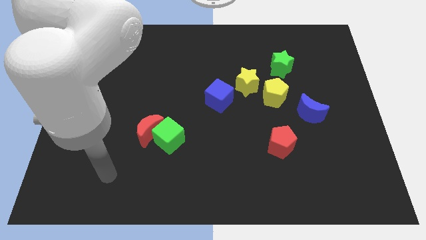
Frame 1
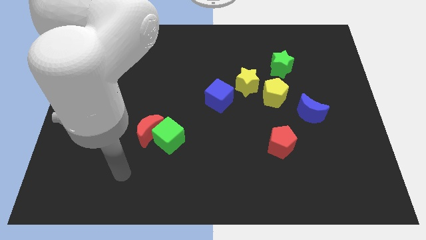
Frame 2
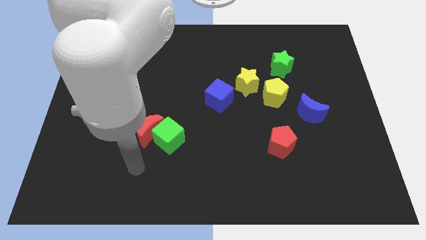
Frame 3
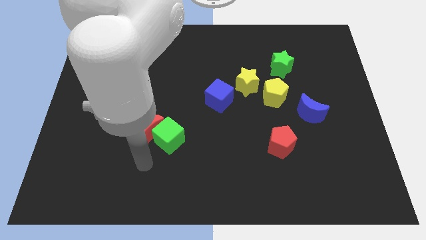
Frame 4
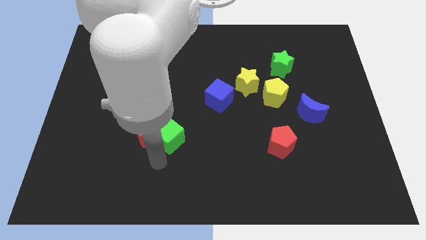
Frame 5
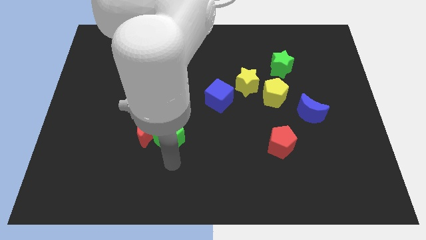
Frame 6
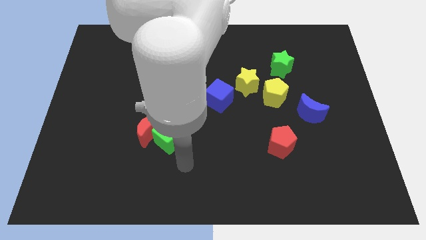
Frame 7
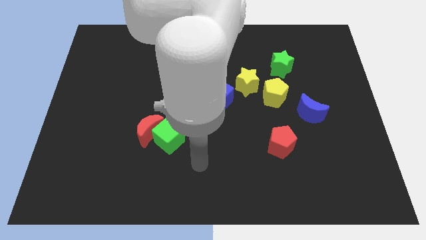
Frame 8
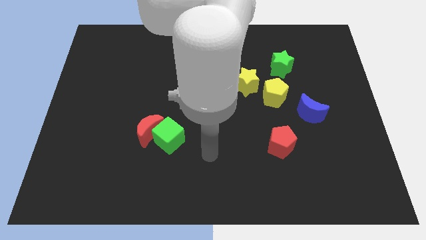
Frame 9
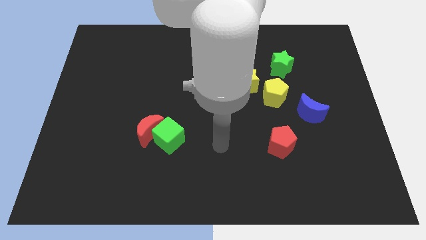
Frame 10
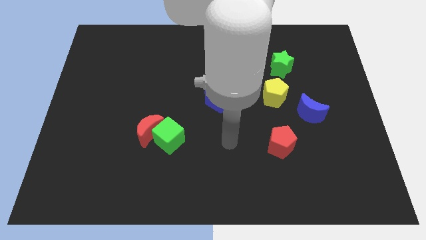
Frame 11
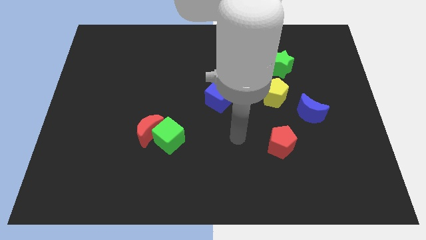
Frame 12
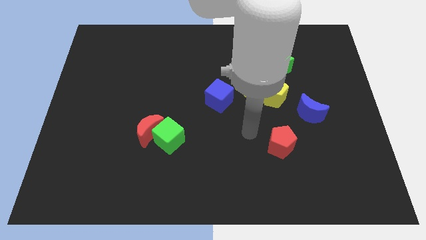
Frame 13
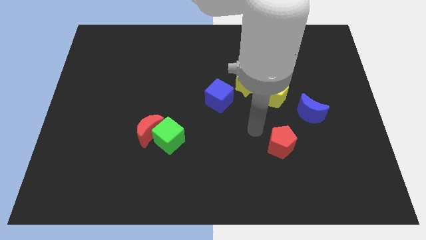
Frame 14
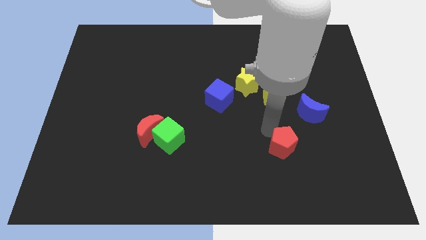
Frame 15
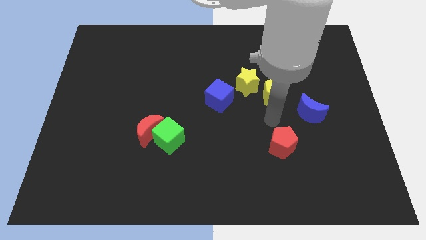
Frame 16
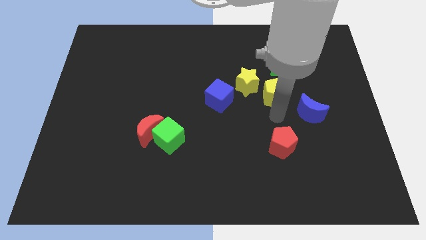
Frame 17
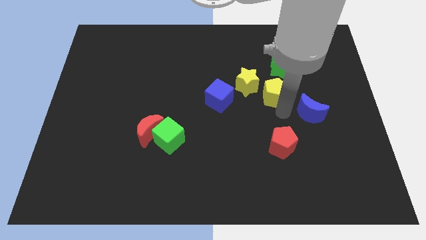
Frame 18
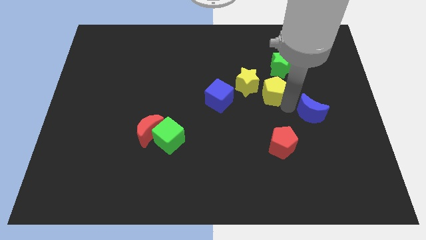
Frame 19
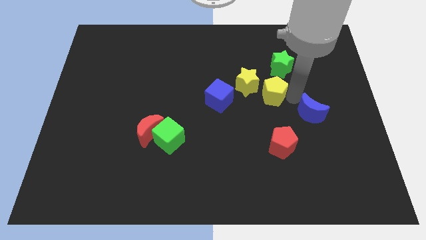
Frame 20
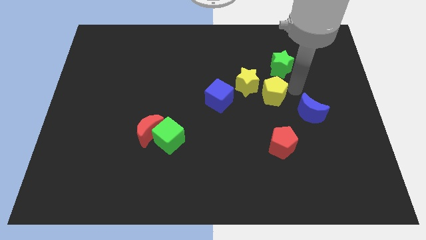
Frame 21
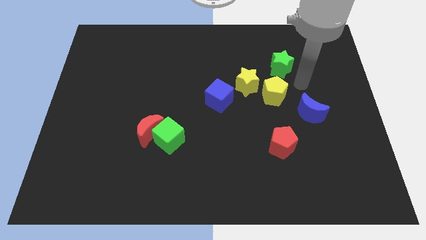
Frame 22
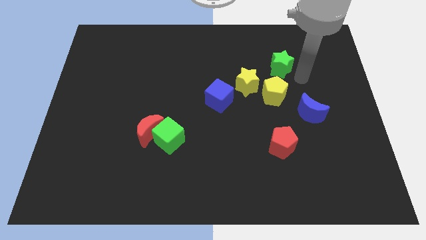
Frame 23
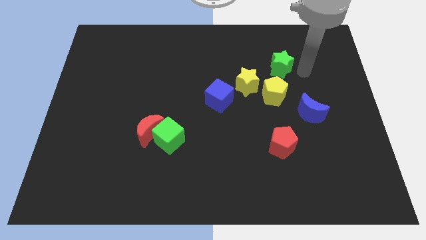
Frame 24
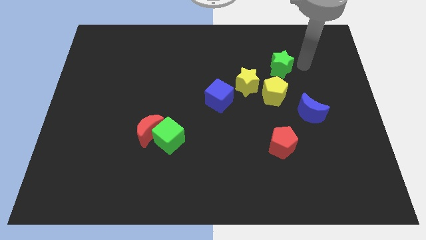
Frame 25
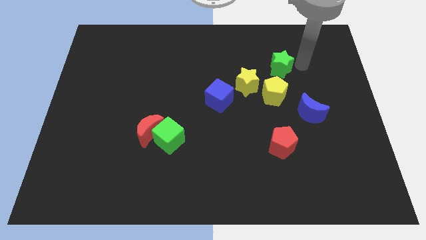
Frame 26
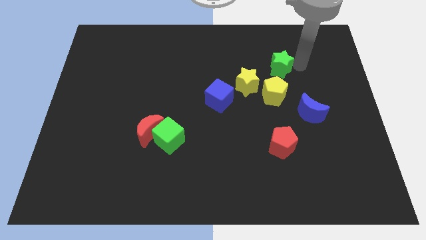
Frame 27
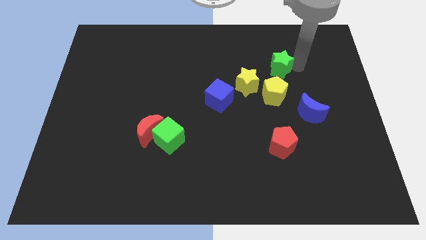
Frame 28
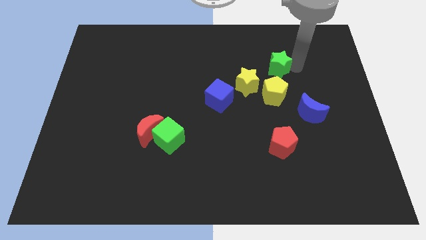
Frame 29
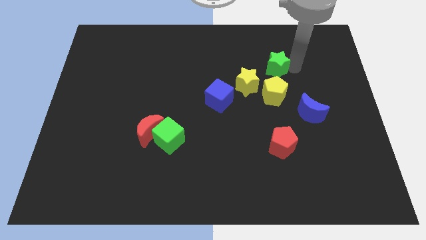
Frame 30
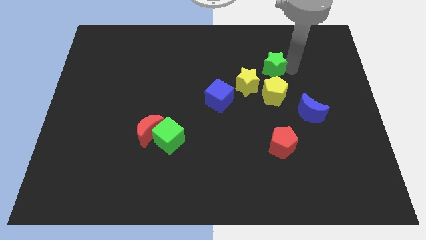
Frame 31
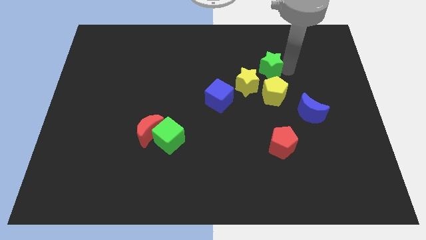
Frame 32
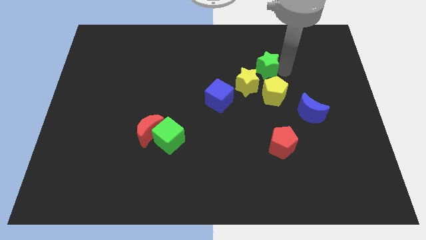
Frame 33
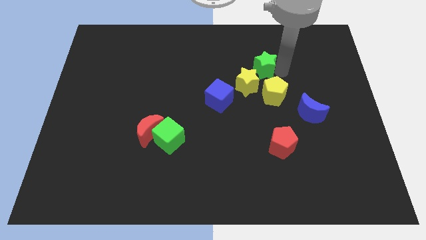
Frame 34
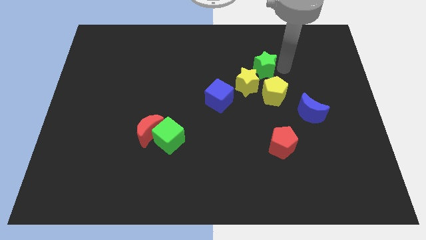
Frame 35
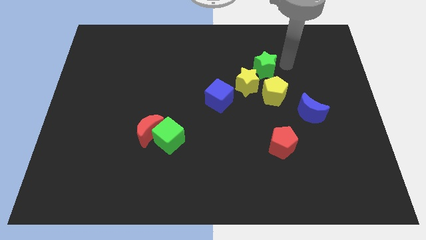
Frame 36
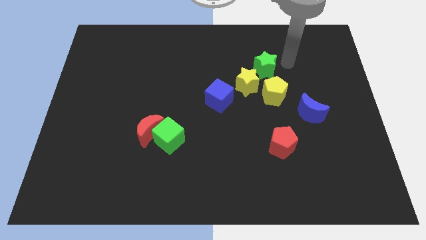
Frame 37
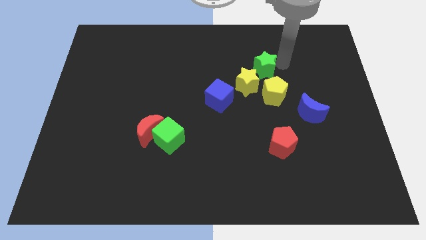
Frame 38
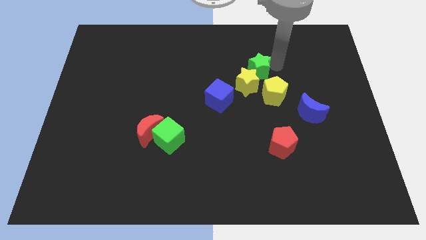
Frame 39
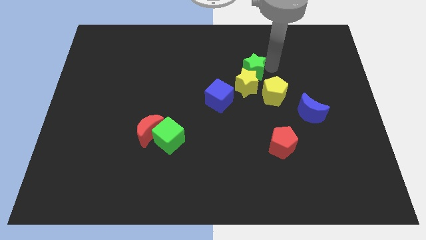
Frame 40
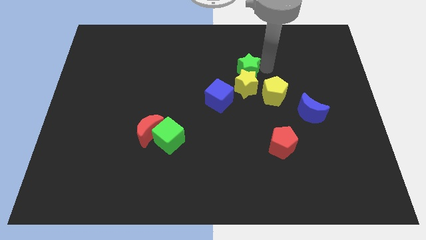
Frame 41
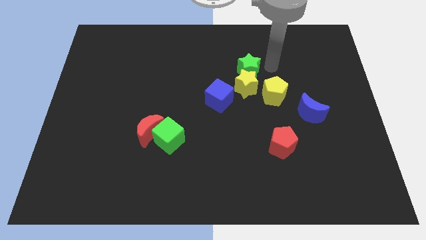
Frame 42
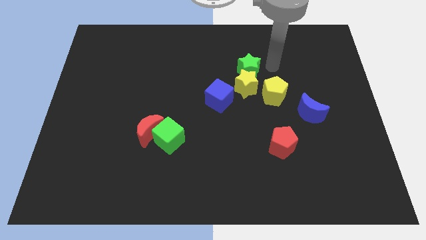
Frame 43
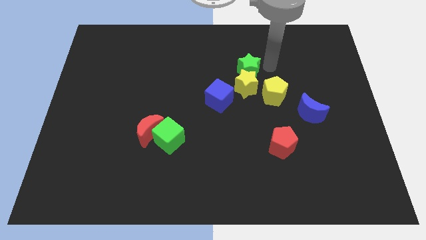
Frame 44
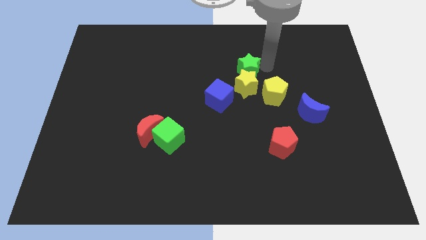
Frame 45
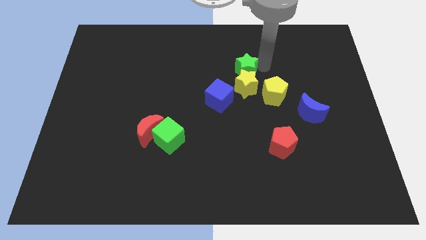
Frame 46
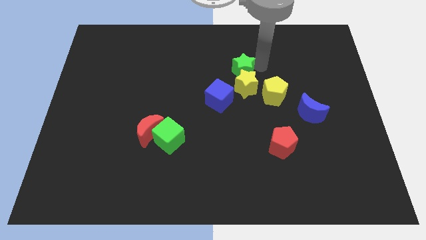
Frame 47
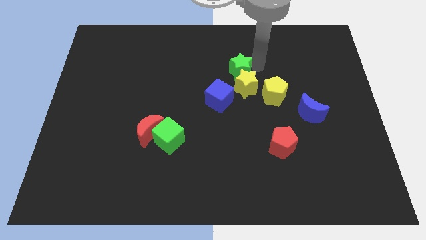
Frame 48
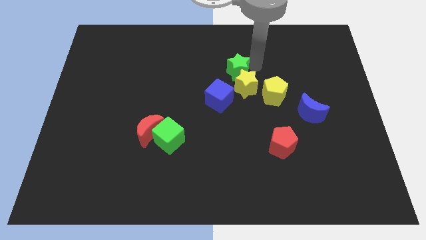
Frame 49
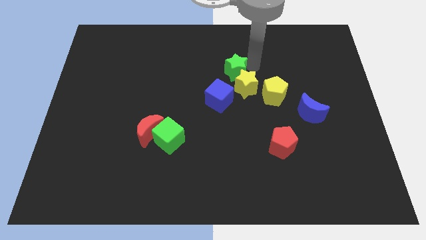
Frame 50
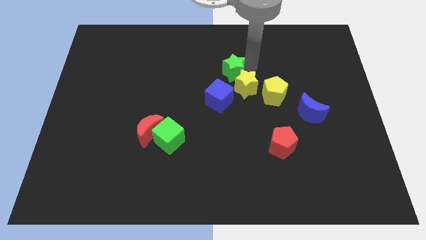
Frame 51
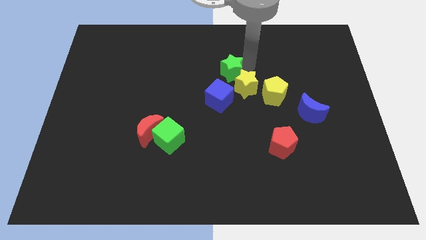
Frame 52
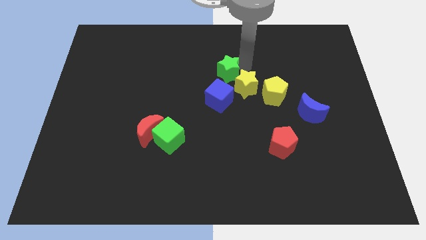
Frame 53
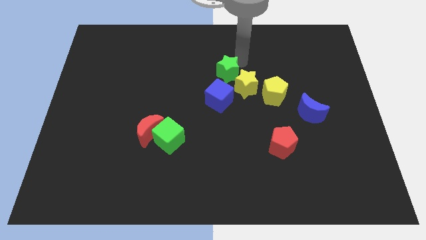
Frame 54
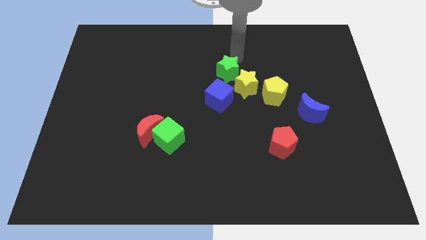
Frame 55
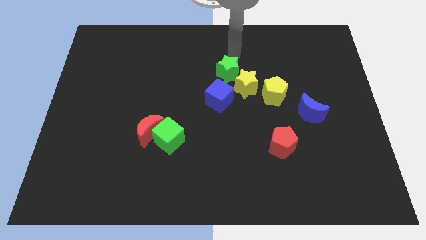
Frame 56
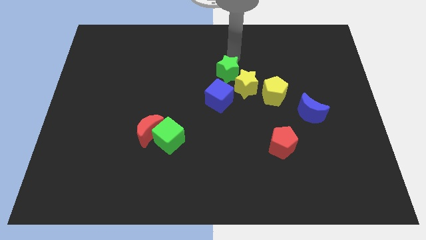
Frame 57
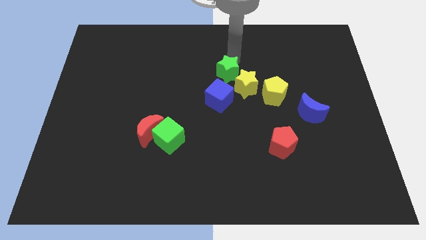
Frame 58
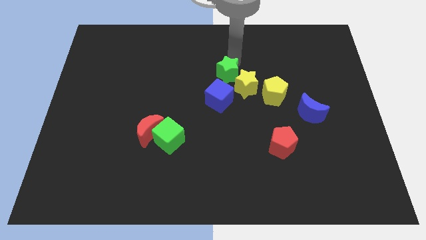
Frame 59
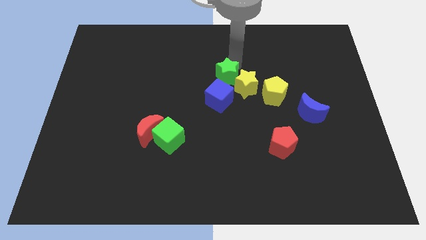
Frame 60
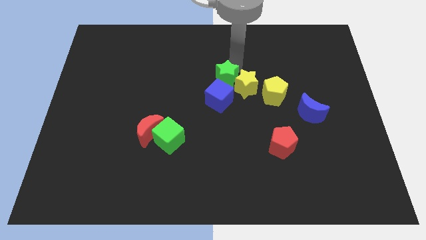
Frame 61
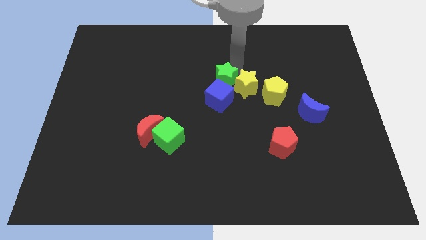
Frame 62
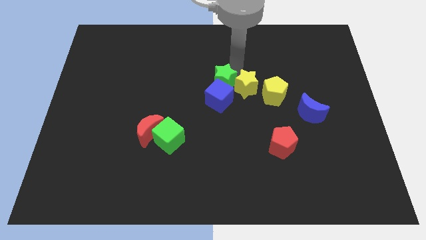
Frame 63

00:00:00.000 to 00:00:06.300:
push the green star close to the blue cube

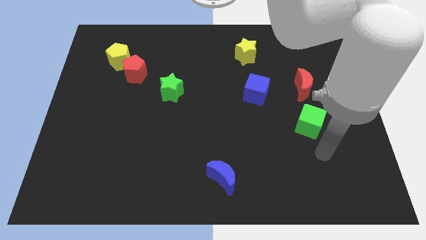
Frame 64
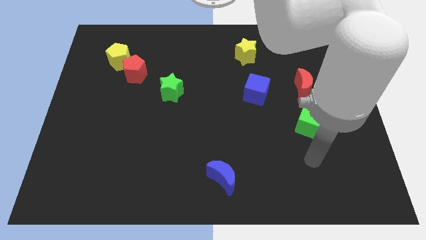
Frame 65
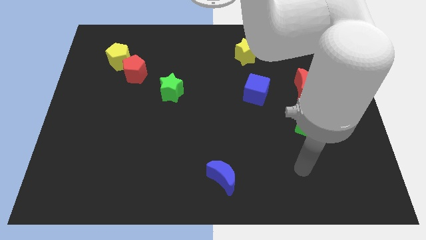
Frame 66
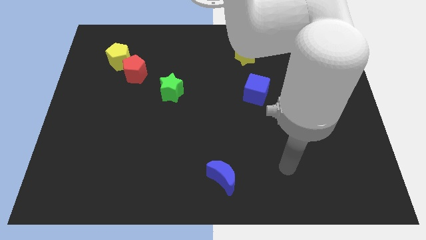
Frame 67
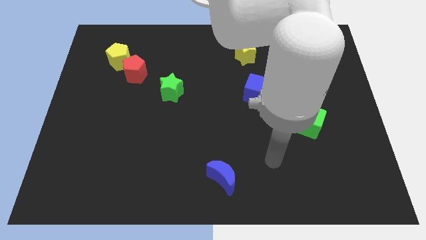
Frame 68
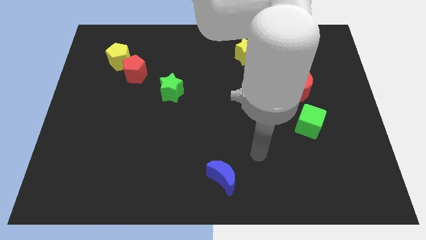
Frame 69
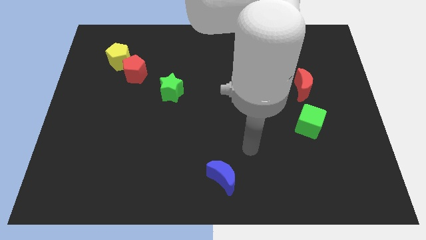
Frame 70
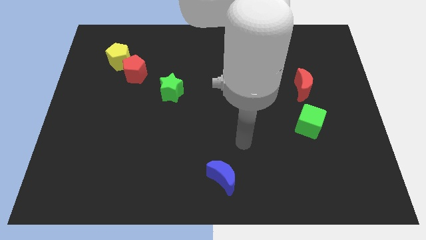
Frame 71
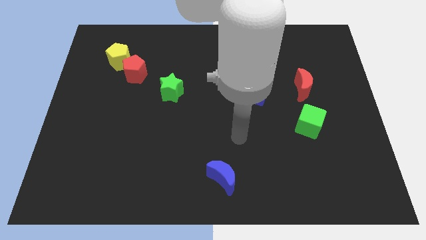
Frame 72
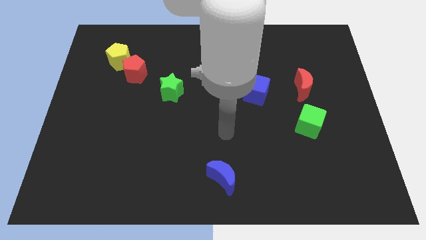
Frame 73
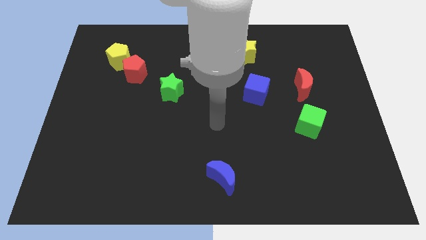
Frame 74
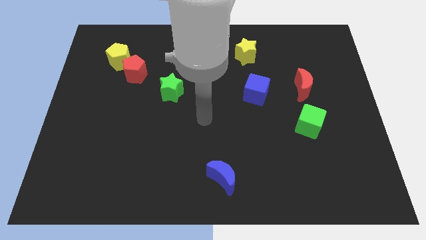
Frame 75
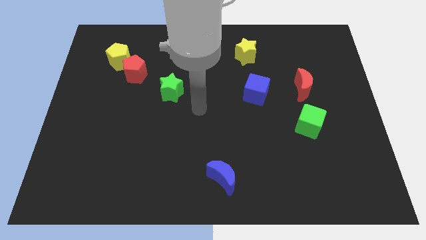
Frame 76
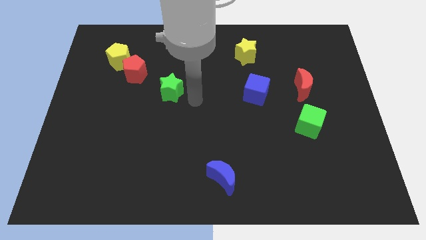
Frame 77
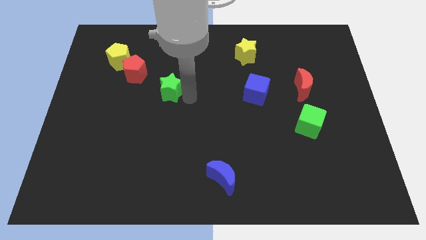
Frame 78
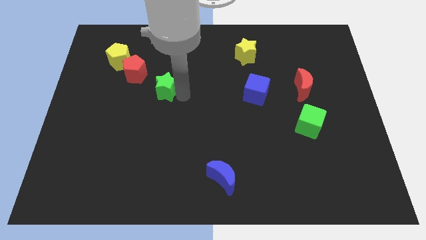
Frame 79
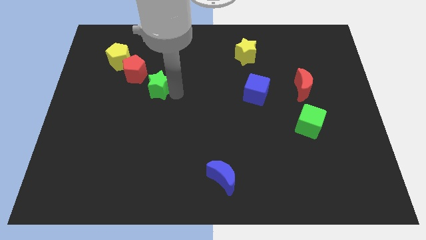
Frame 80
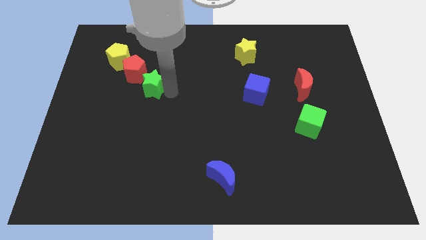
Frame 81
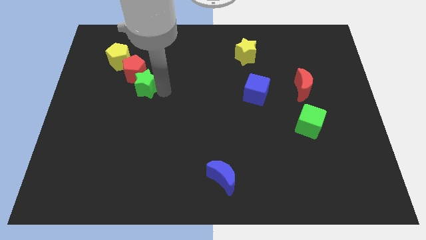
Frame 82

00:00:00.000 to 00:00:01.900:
push the green star towards the red pentagon
